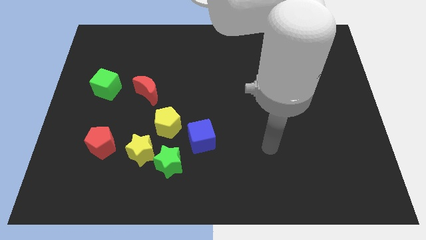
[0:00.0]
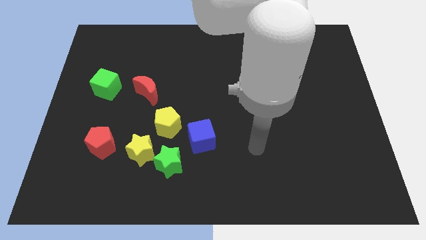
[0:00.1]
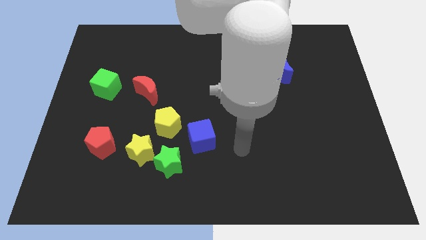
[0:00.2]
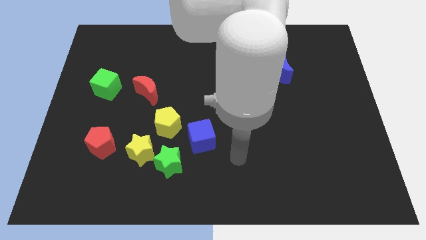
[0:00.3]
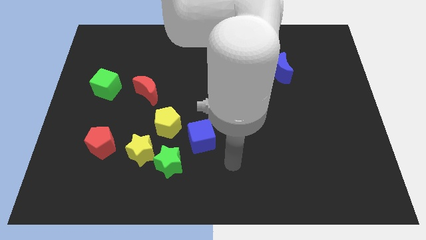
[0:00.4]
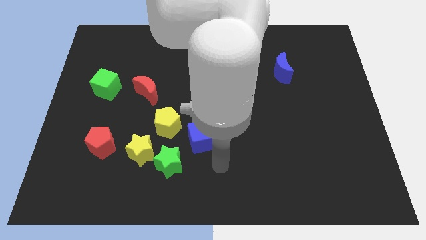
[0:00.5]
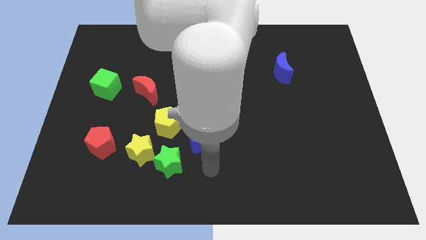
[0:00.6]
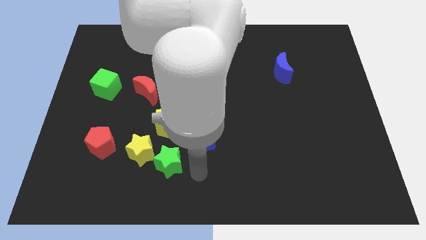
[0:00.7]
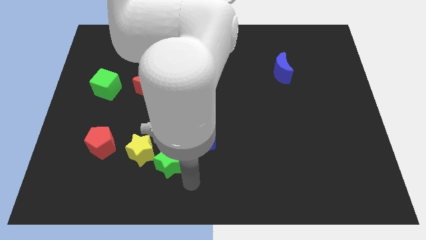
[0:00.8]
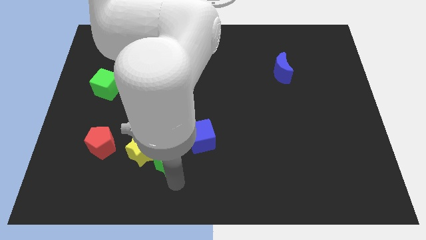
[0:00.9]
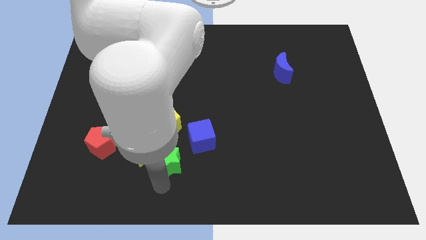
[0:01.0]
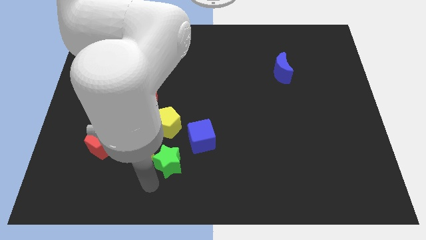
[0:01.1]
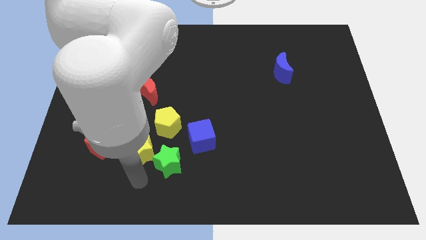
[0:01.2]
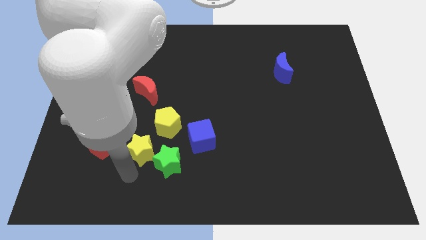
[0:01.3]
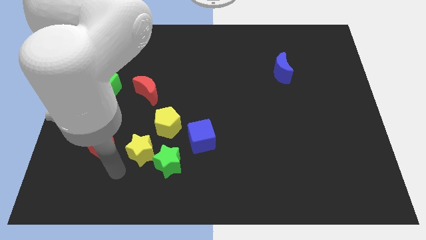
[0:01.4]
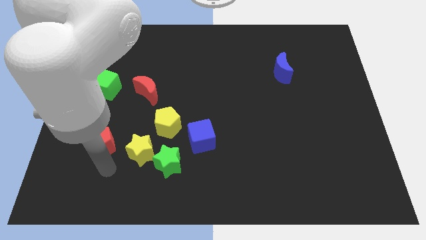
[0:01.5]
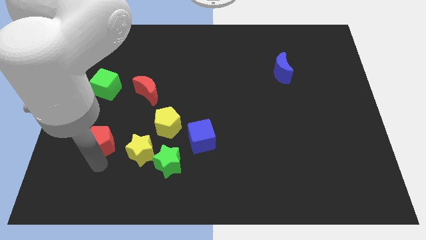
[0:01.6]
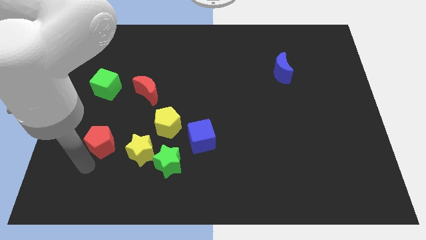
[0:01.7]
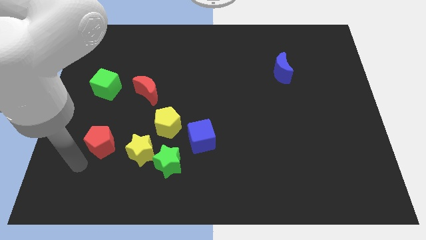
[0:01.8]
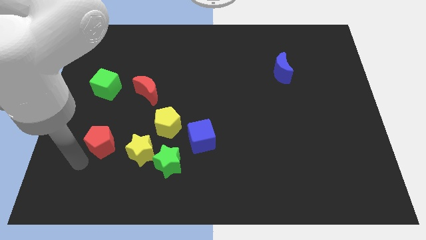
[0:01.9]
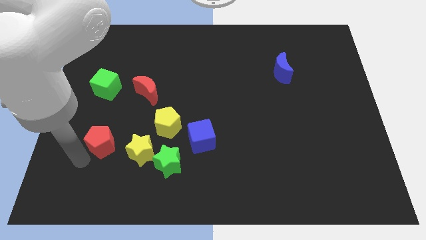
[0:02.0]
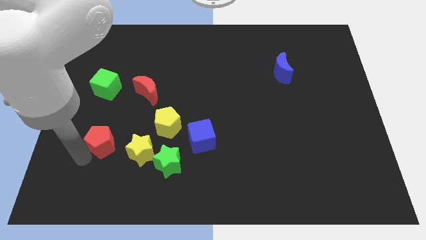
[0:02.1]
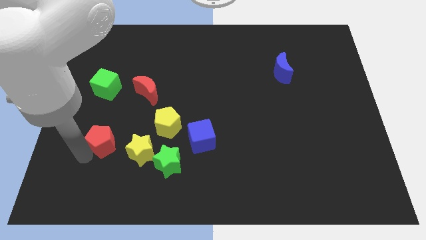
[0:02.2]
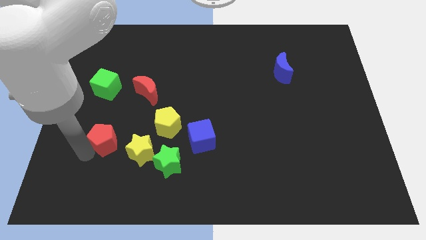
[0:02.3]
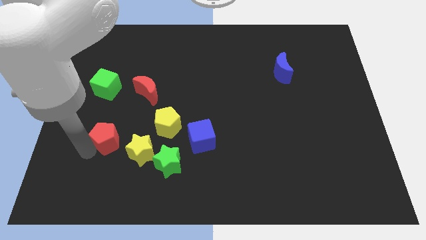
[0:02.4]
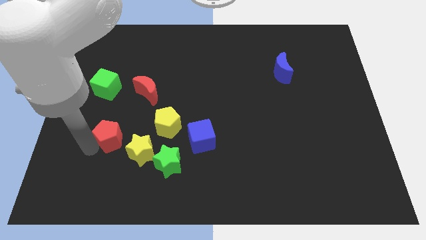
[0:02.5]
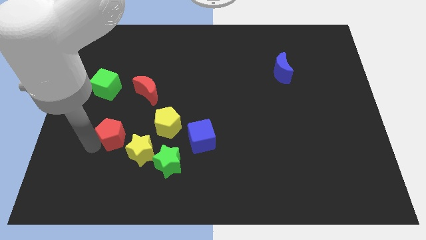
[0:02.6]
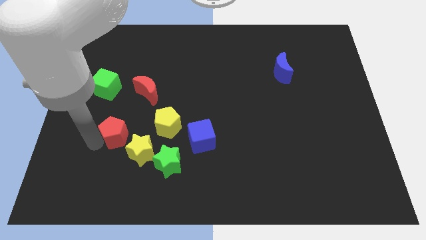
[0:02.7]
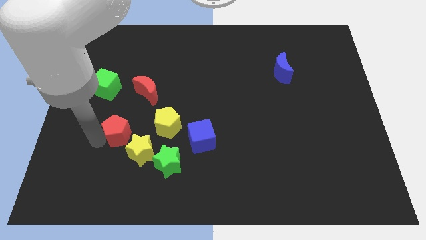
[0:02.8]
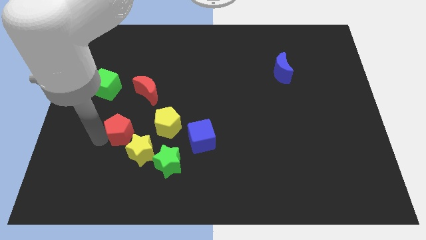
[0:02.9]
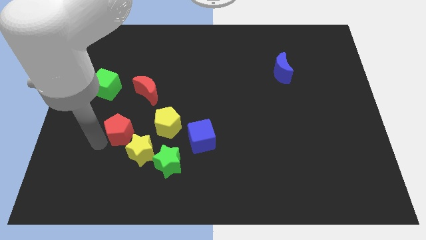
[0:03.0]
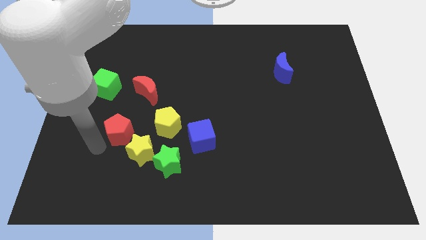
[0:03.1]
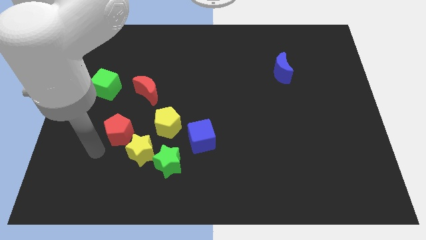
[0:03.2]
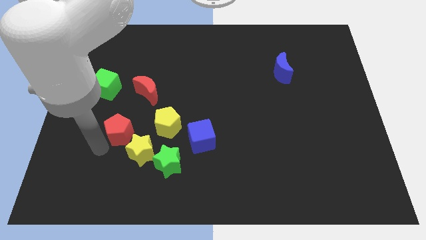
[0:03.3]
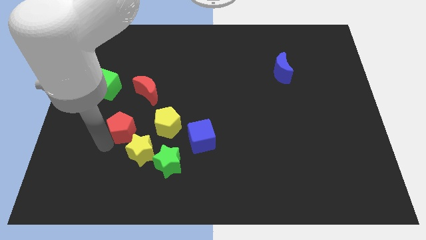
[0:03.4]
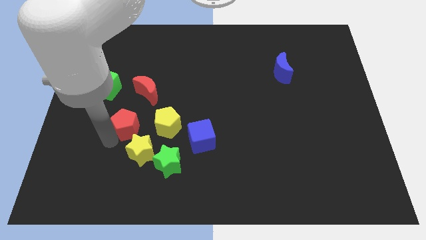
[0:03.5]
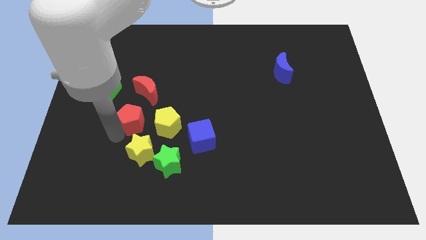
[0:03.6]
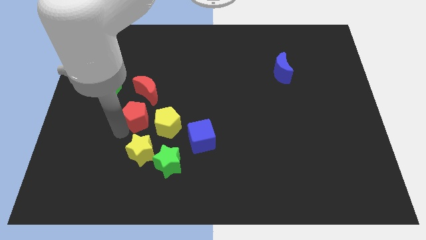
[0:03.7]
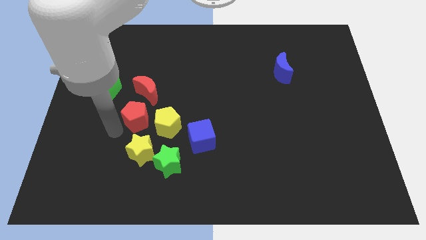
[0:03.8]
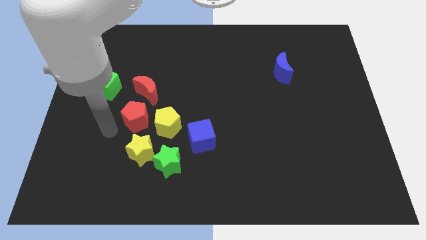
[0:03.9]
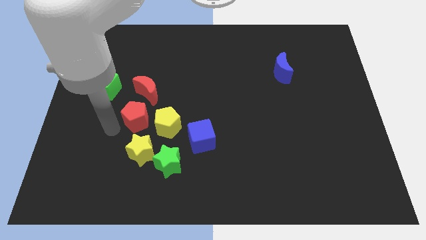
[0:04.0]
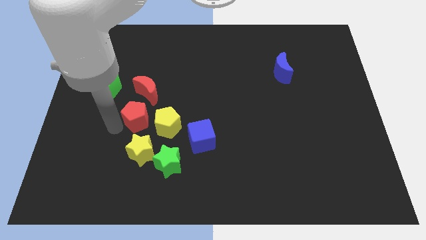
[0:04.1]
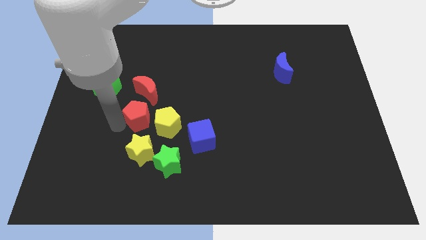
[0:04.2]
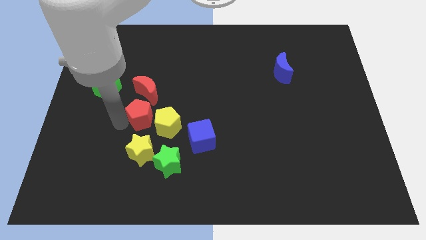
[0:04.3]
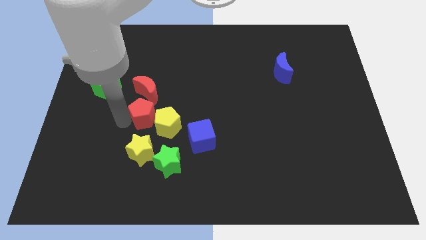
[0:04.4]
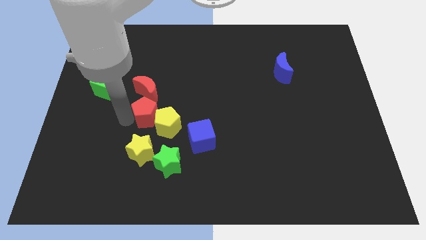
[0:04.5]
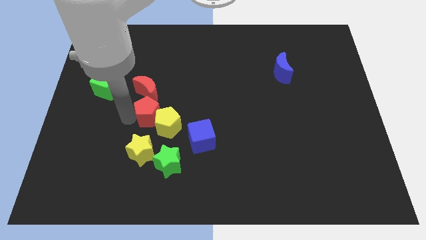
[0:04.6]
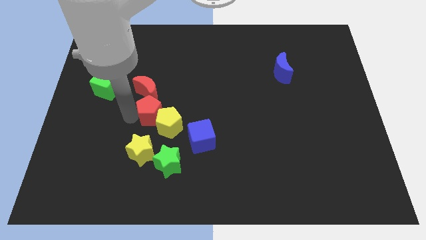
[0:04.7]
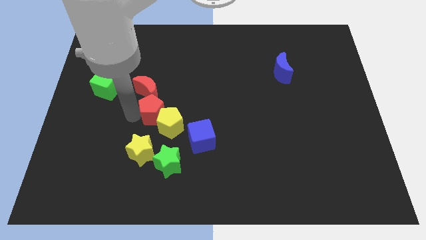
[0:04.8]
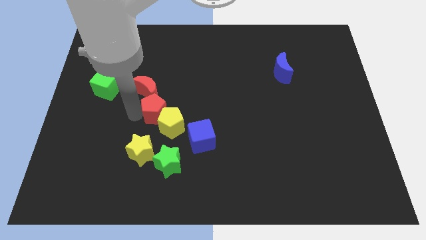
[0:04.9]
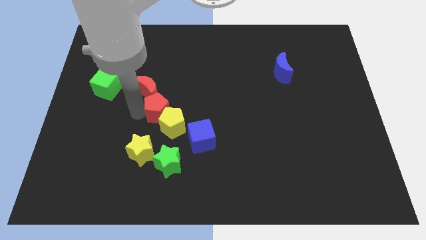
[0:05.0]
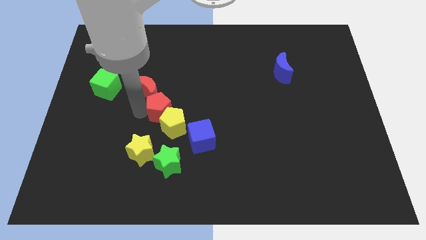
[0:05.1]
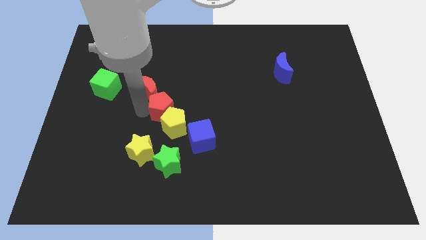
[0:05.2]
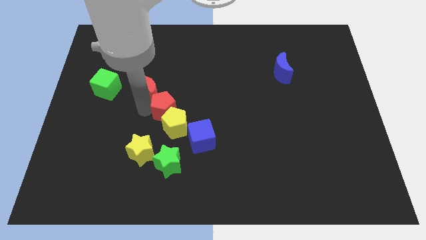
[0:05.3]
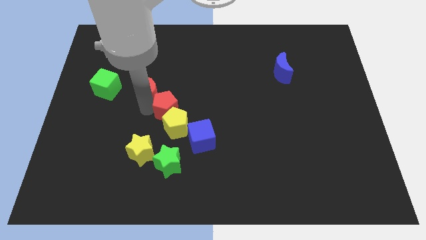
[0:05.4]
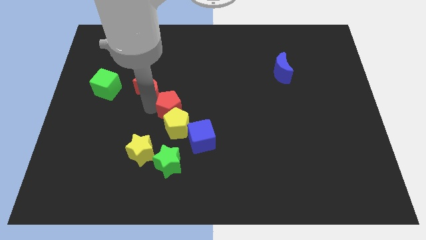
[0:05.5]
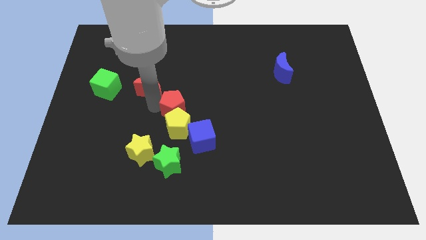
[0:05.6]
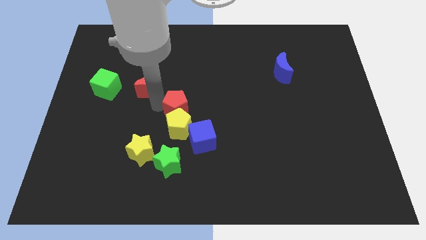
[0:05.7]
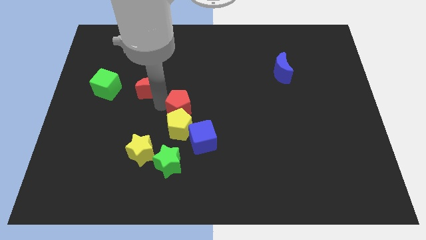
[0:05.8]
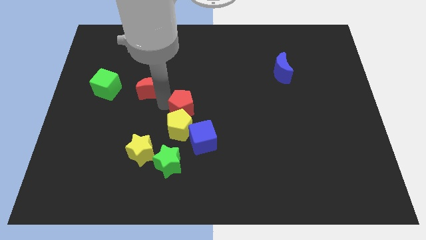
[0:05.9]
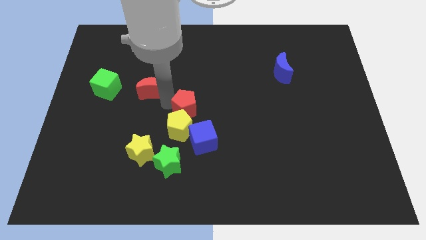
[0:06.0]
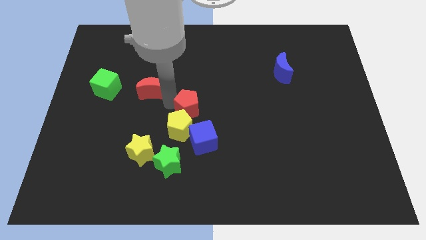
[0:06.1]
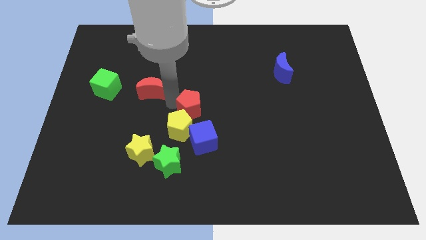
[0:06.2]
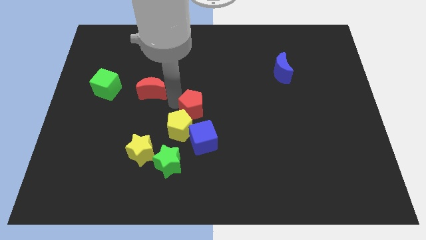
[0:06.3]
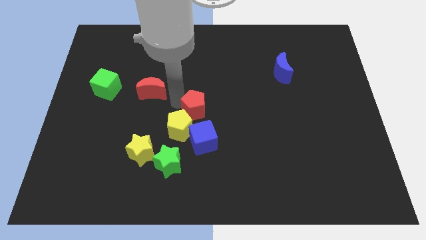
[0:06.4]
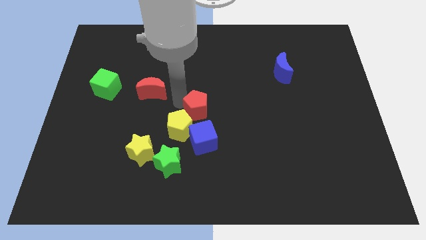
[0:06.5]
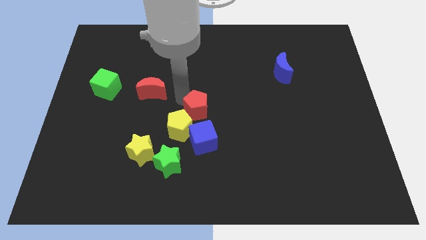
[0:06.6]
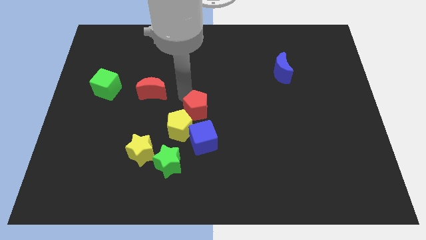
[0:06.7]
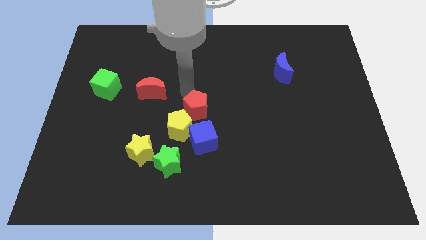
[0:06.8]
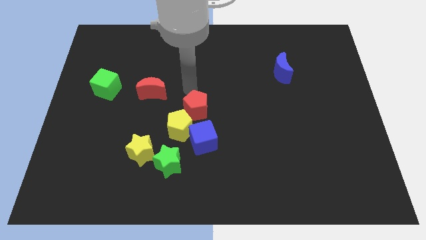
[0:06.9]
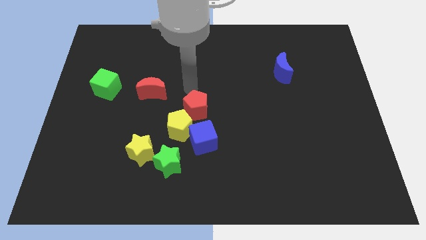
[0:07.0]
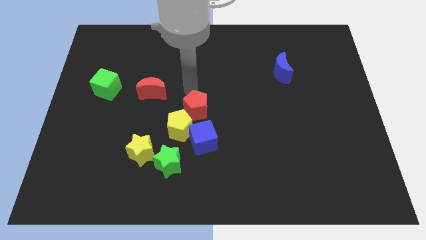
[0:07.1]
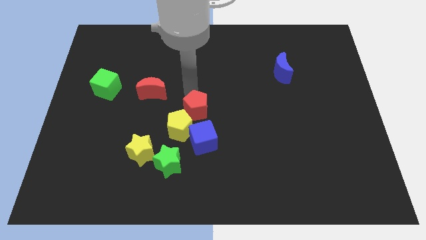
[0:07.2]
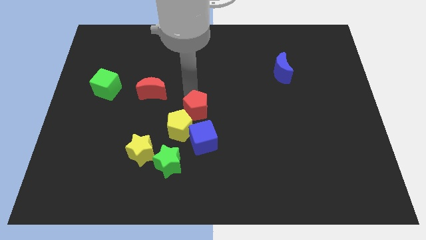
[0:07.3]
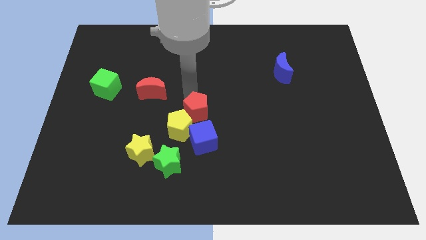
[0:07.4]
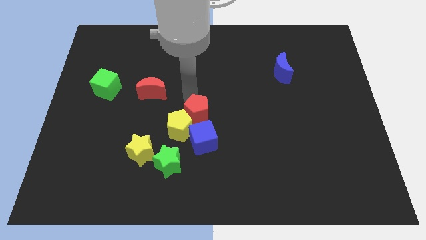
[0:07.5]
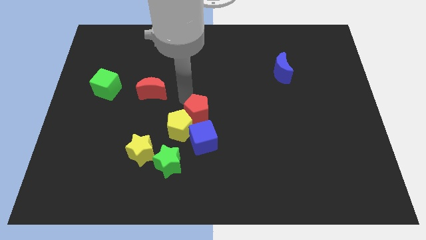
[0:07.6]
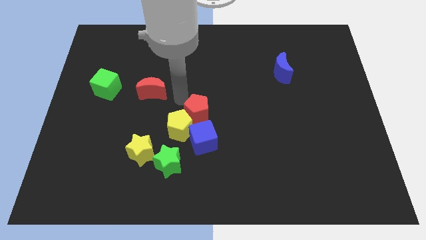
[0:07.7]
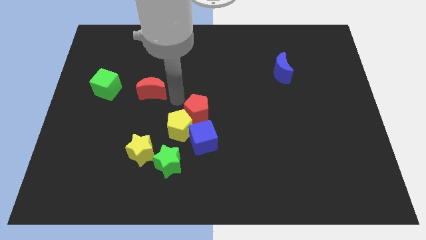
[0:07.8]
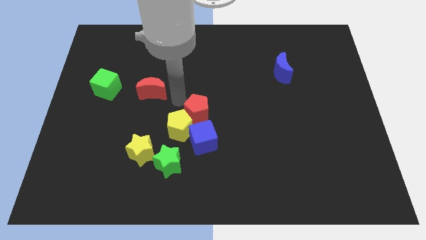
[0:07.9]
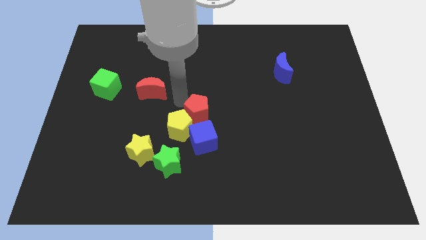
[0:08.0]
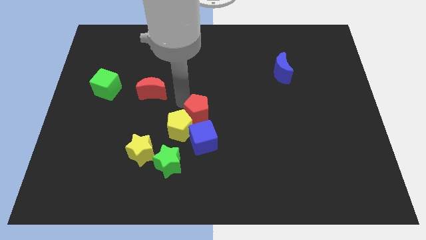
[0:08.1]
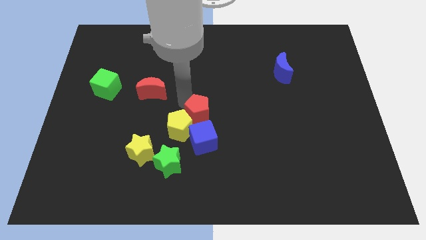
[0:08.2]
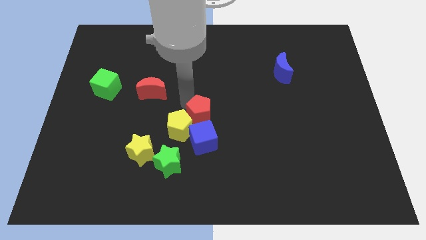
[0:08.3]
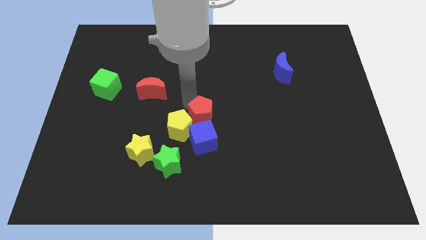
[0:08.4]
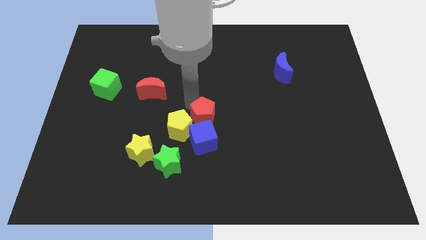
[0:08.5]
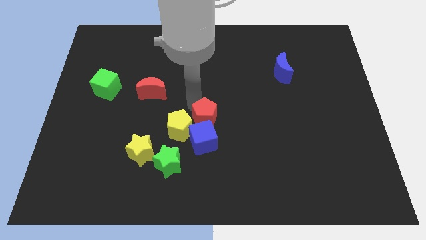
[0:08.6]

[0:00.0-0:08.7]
slide the red pentagon right
